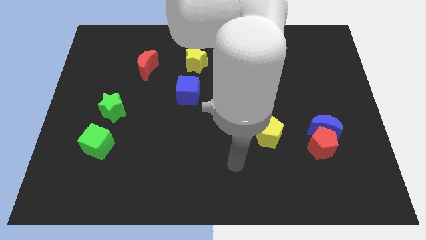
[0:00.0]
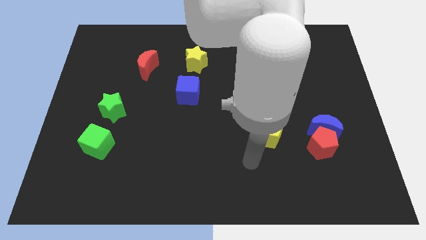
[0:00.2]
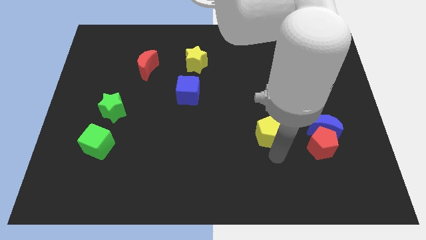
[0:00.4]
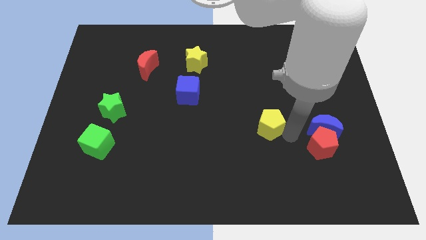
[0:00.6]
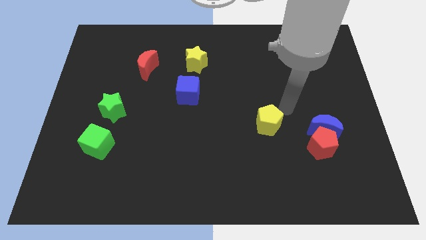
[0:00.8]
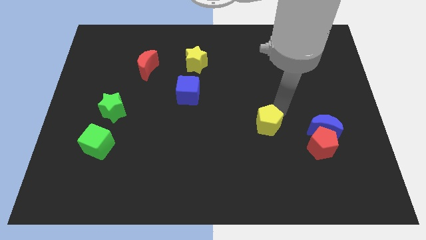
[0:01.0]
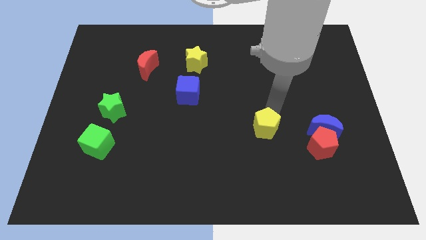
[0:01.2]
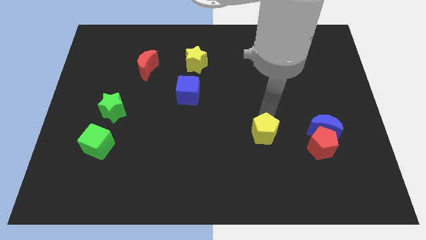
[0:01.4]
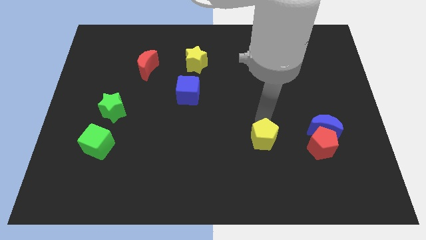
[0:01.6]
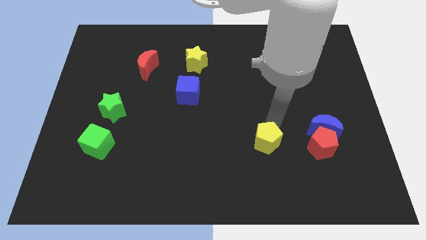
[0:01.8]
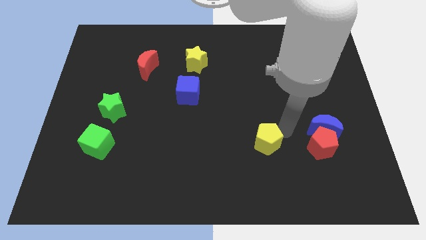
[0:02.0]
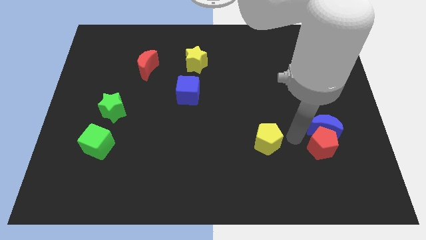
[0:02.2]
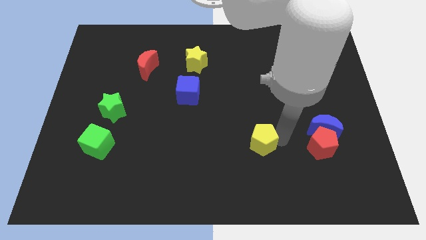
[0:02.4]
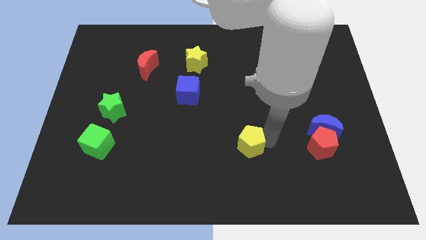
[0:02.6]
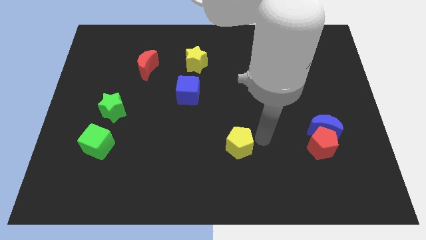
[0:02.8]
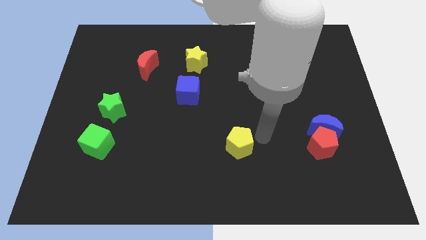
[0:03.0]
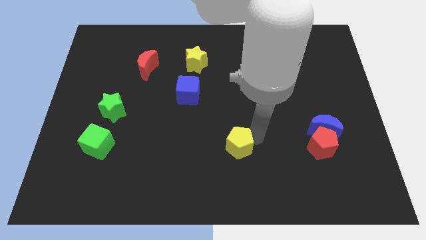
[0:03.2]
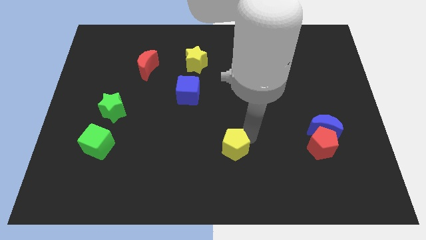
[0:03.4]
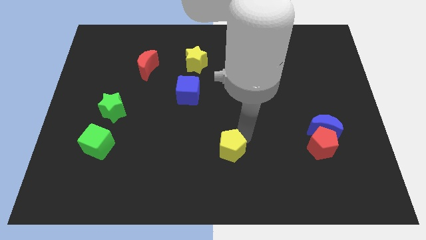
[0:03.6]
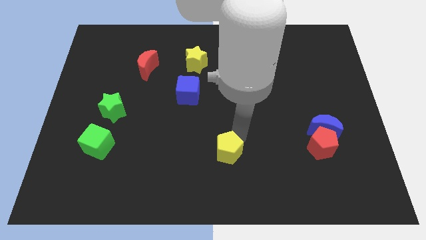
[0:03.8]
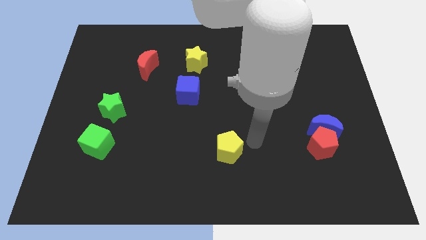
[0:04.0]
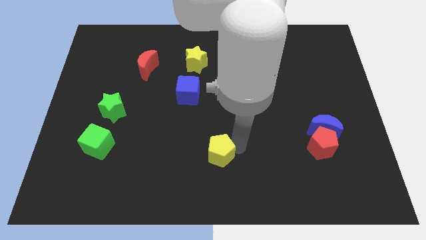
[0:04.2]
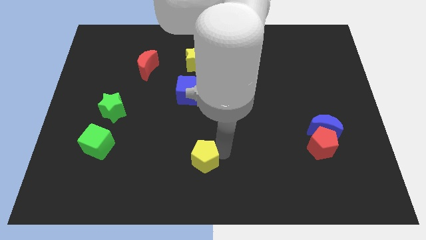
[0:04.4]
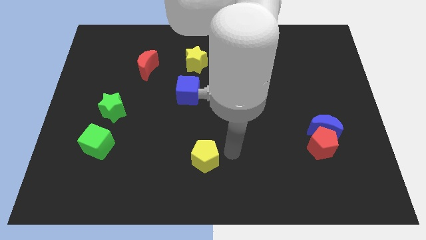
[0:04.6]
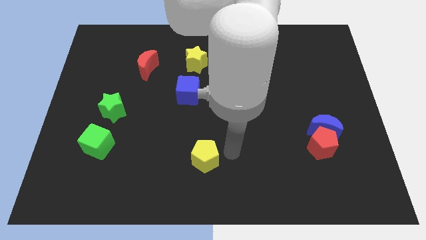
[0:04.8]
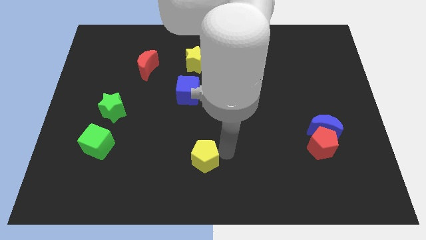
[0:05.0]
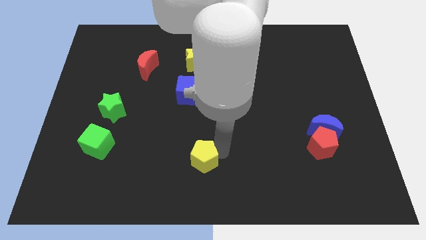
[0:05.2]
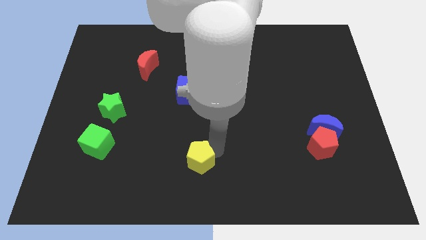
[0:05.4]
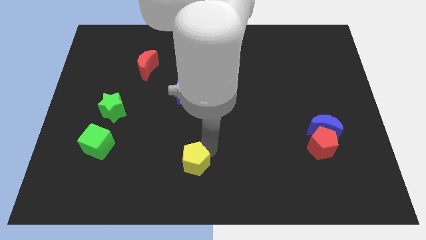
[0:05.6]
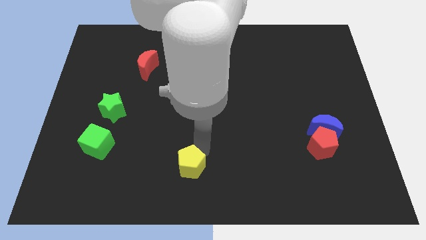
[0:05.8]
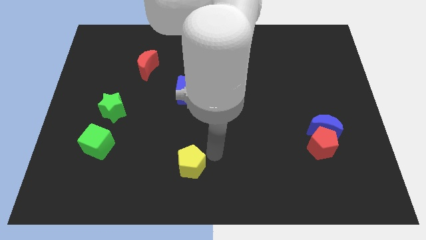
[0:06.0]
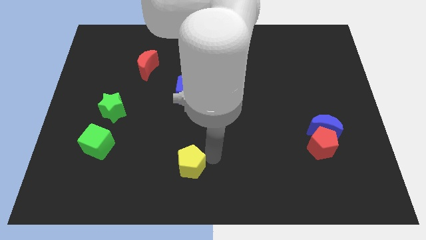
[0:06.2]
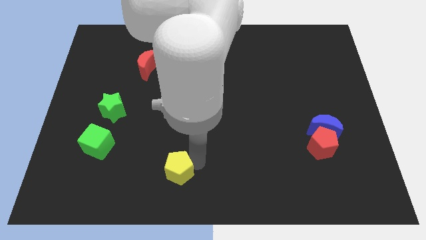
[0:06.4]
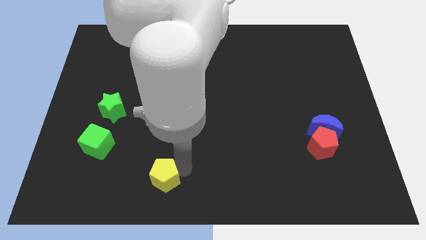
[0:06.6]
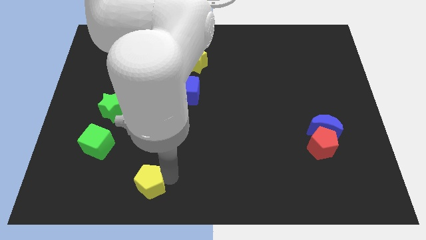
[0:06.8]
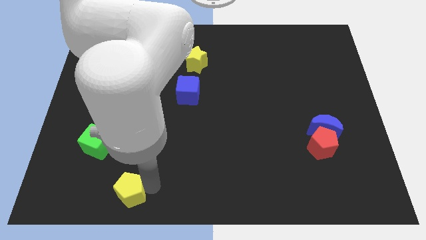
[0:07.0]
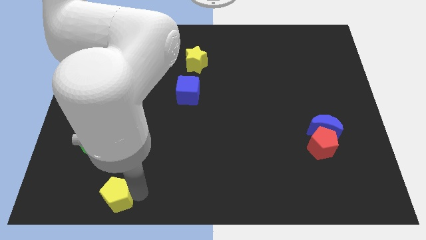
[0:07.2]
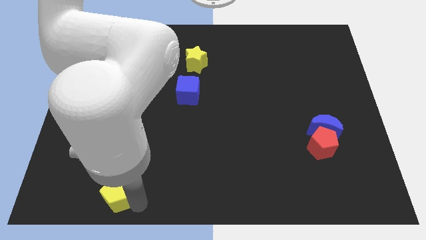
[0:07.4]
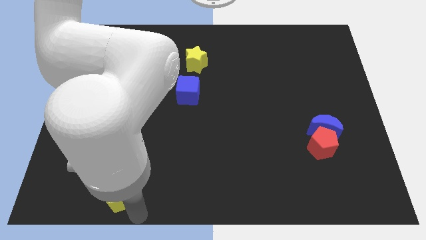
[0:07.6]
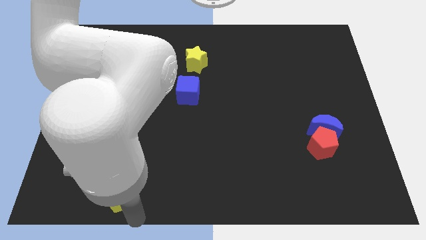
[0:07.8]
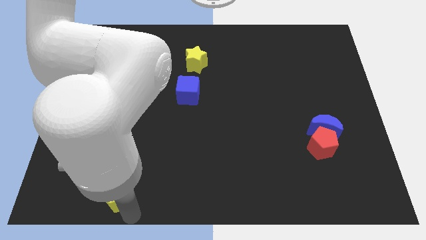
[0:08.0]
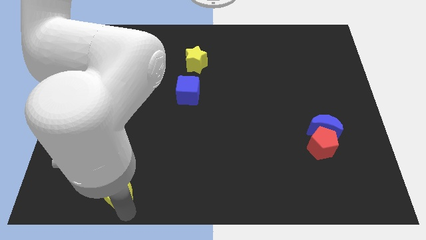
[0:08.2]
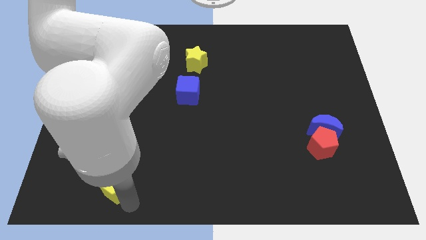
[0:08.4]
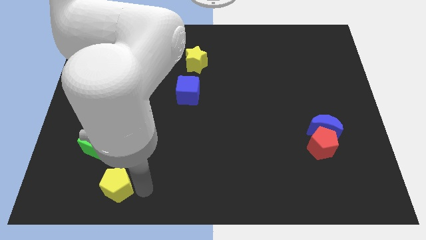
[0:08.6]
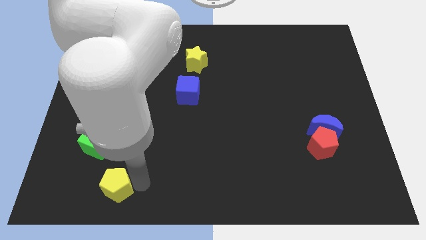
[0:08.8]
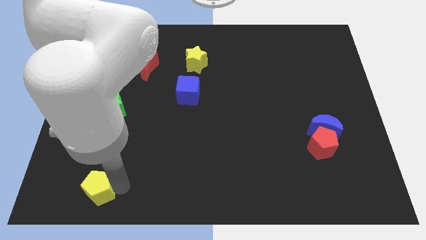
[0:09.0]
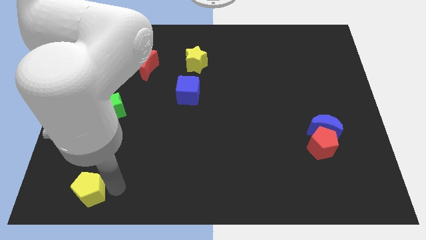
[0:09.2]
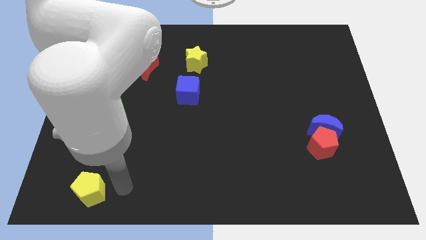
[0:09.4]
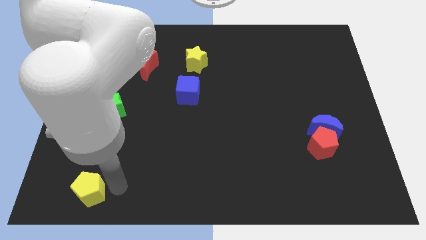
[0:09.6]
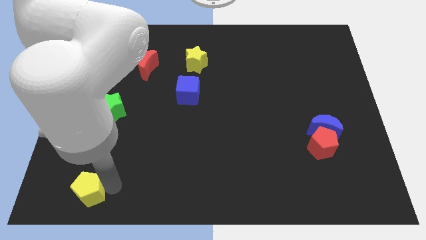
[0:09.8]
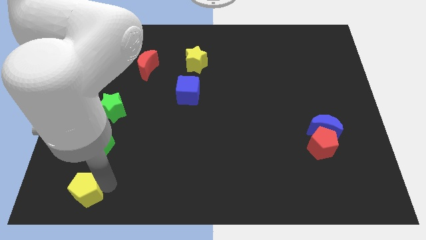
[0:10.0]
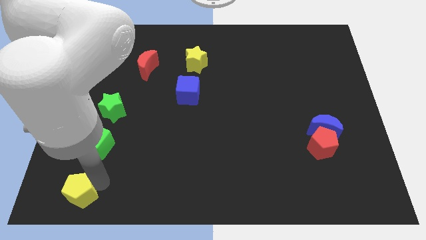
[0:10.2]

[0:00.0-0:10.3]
put the yellow pentagon to the bottom left of the board
